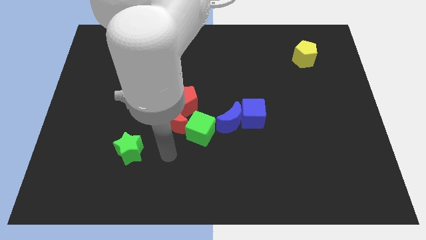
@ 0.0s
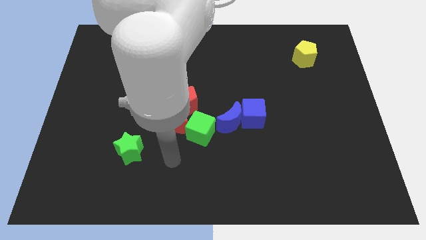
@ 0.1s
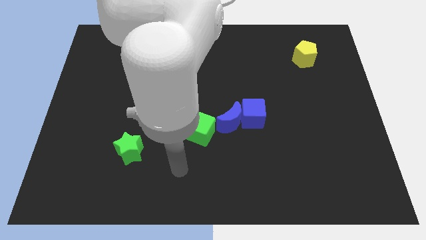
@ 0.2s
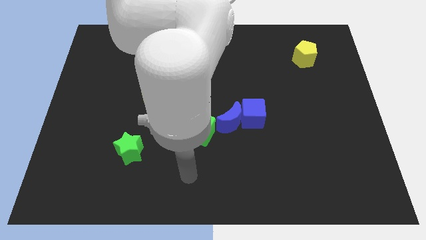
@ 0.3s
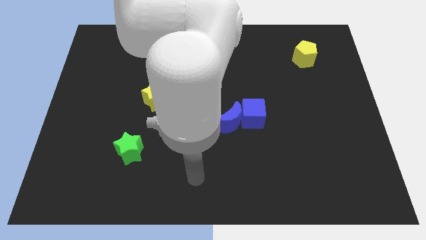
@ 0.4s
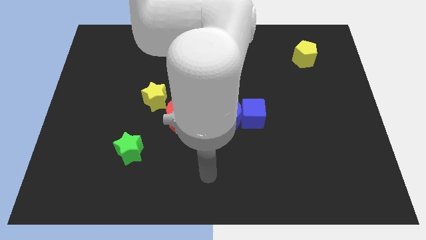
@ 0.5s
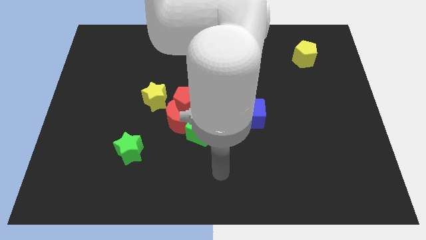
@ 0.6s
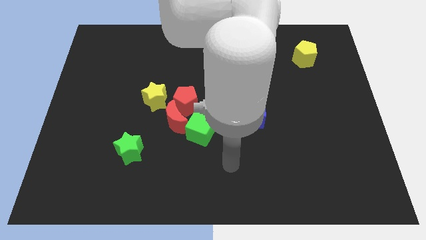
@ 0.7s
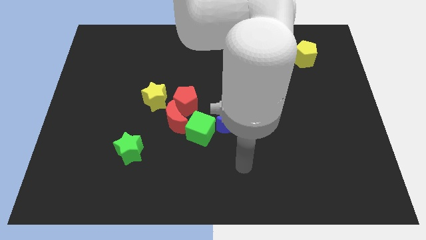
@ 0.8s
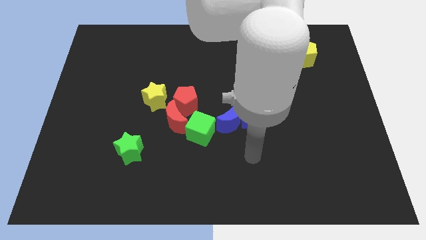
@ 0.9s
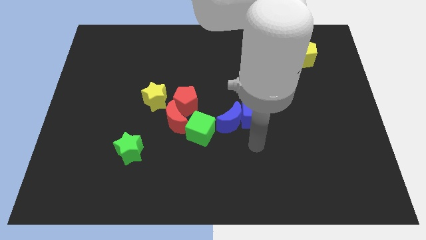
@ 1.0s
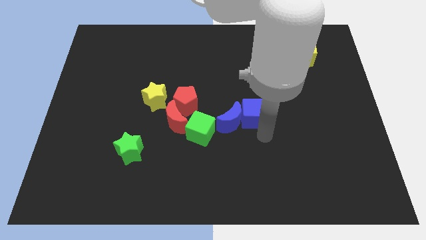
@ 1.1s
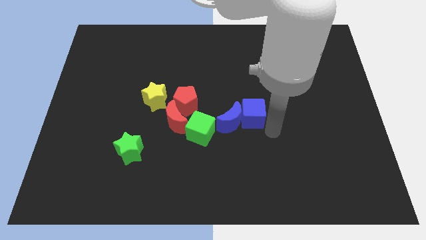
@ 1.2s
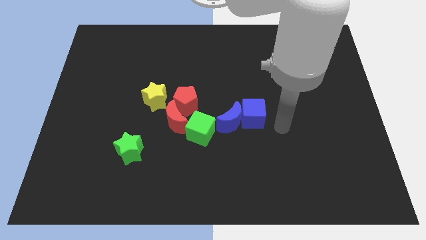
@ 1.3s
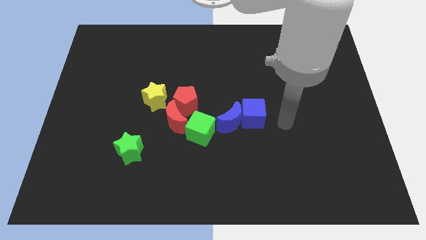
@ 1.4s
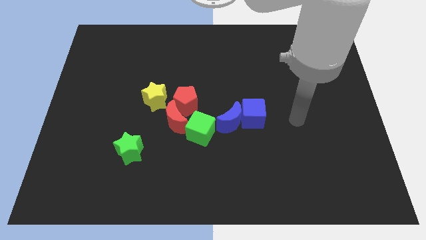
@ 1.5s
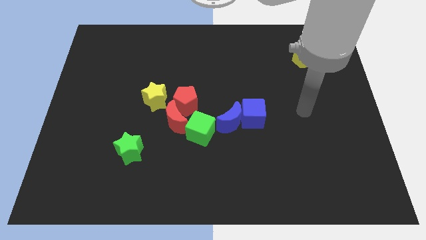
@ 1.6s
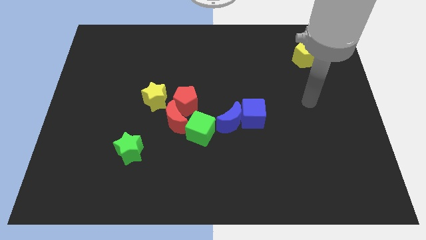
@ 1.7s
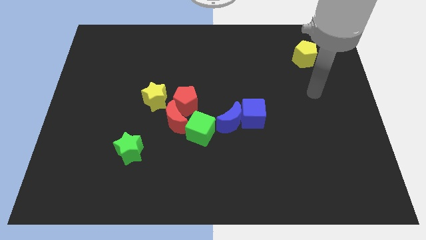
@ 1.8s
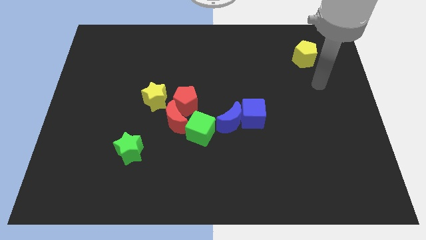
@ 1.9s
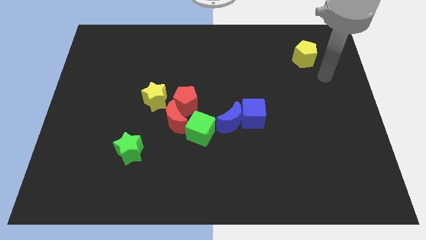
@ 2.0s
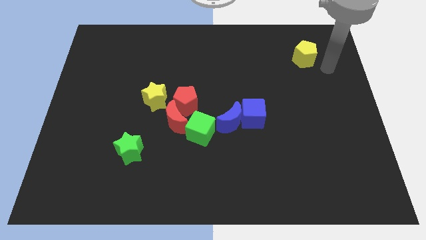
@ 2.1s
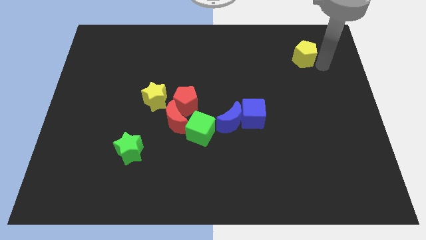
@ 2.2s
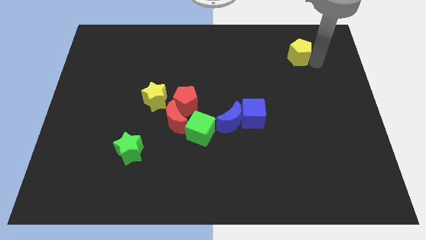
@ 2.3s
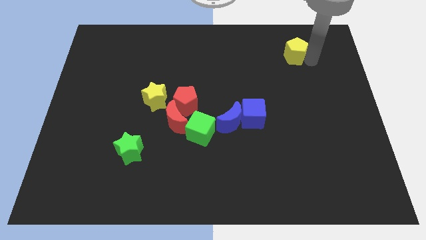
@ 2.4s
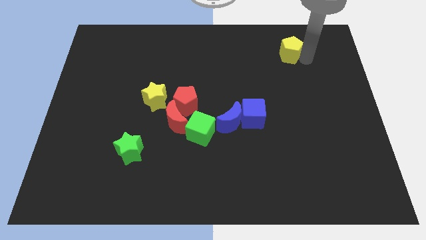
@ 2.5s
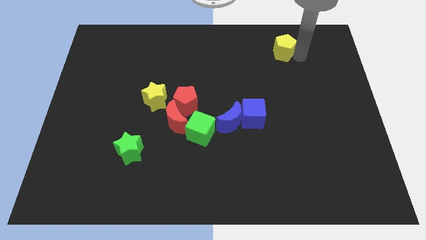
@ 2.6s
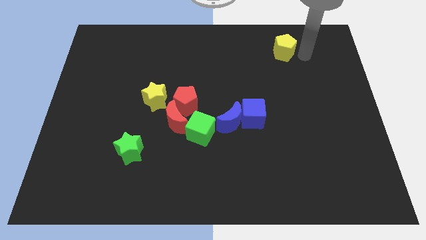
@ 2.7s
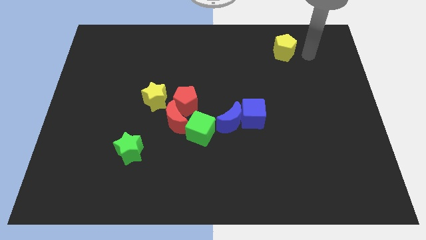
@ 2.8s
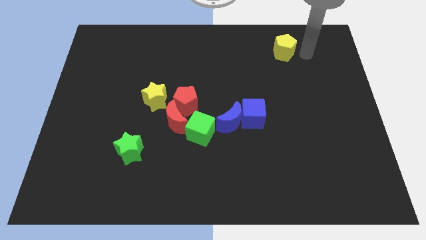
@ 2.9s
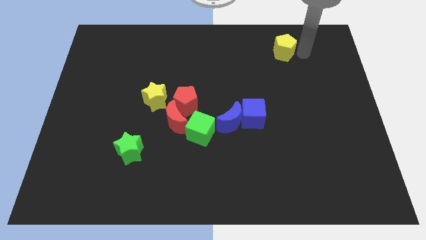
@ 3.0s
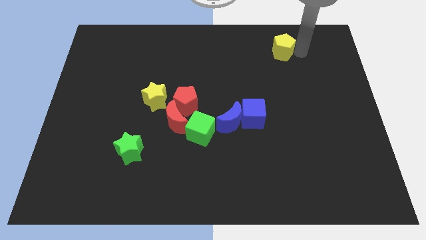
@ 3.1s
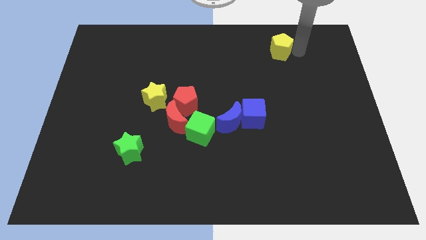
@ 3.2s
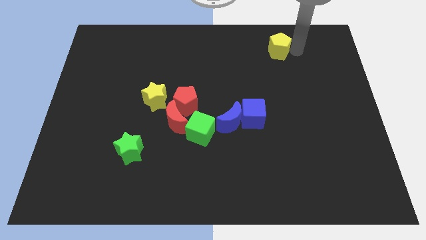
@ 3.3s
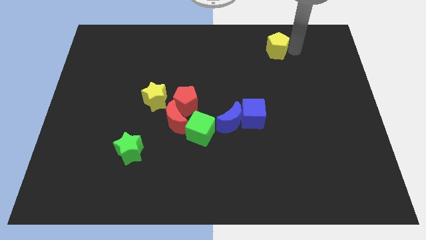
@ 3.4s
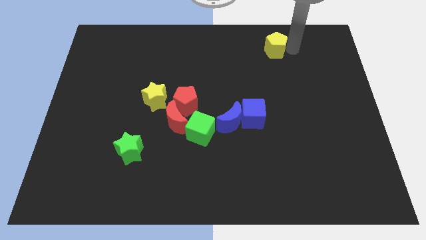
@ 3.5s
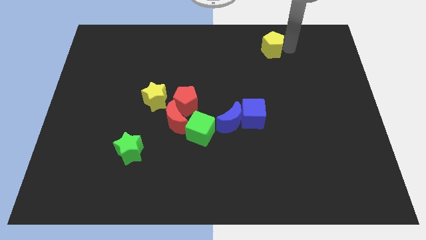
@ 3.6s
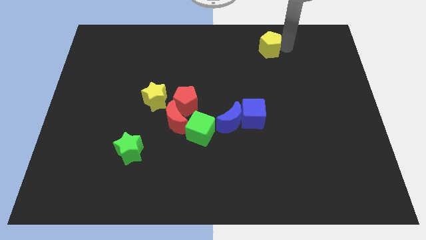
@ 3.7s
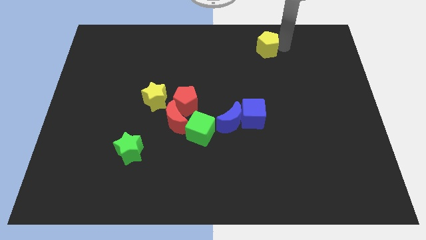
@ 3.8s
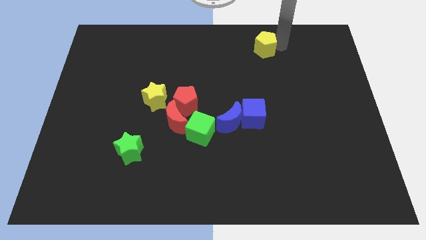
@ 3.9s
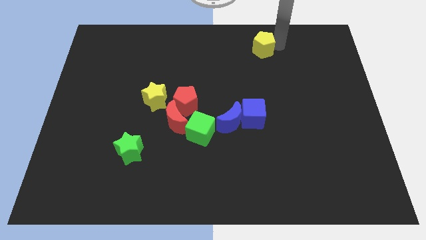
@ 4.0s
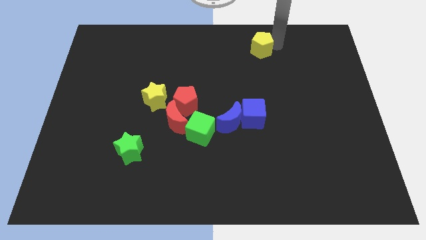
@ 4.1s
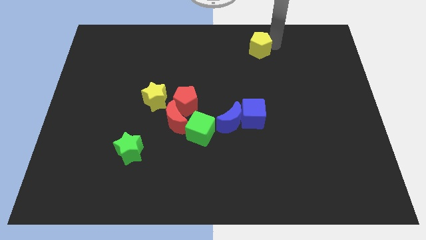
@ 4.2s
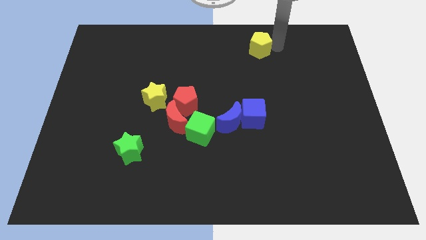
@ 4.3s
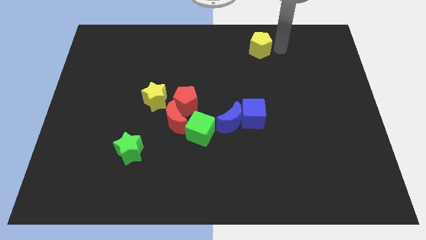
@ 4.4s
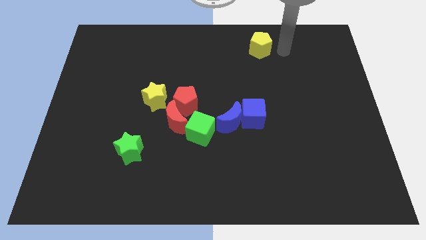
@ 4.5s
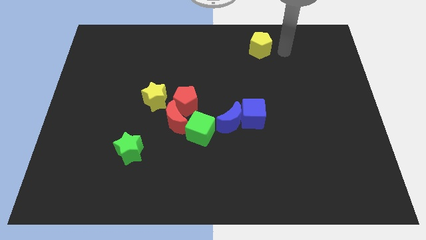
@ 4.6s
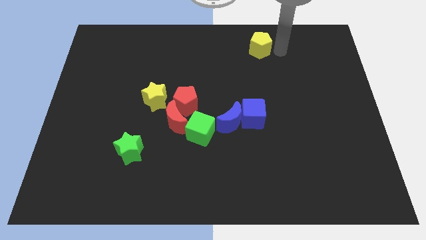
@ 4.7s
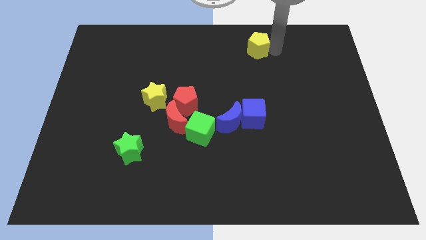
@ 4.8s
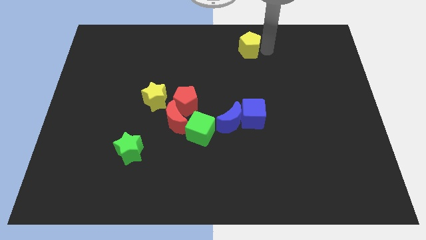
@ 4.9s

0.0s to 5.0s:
move the yellow pentagon to the top

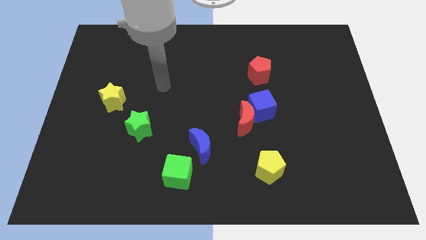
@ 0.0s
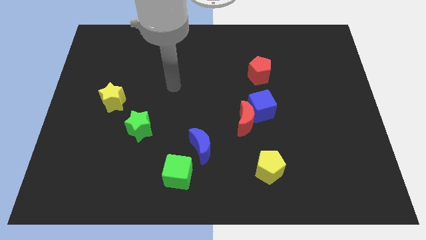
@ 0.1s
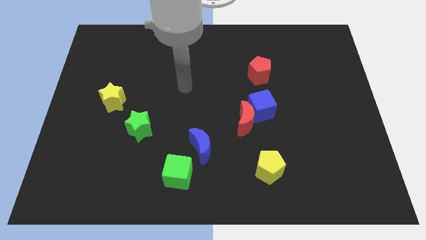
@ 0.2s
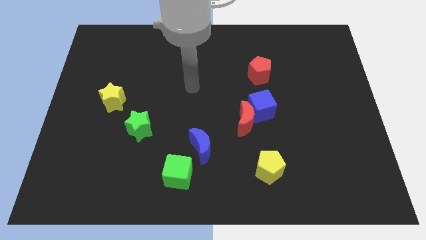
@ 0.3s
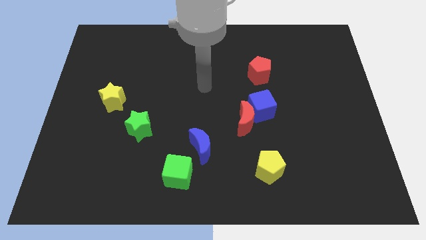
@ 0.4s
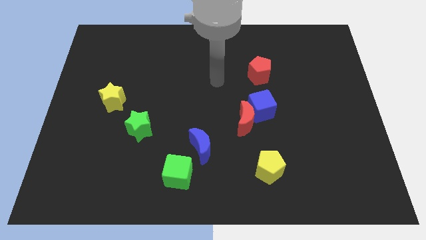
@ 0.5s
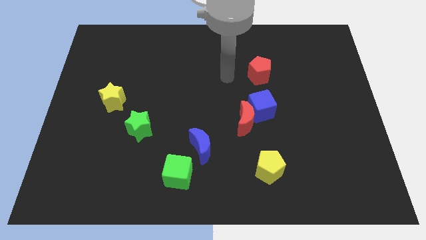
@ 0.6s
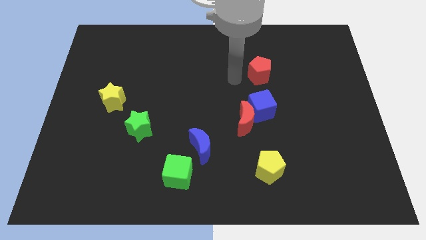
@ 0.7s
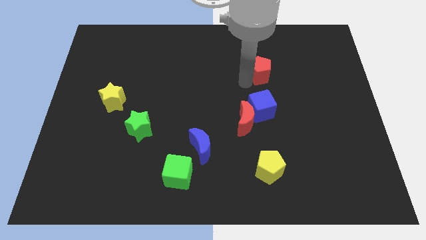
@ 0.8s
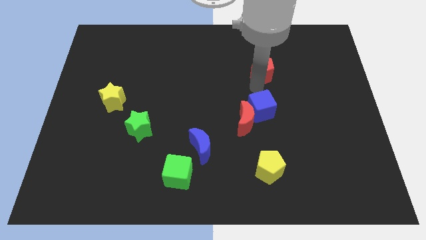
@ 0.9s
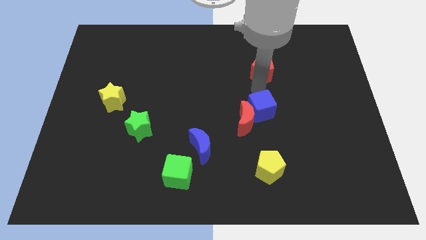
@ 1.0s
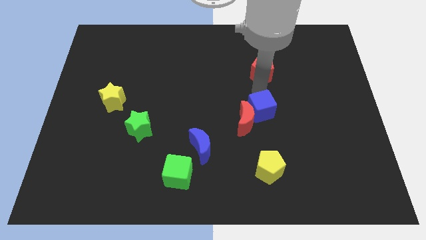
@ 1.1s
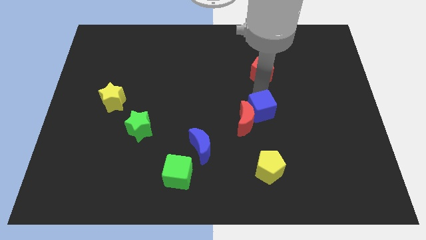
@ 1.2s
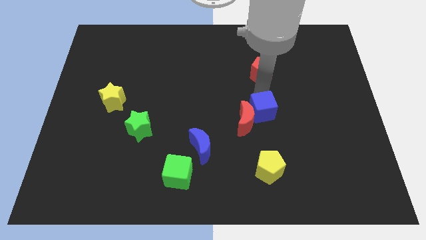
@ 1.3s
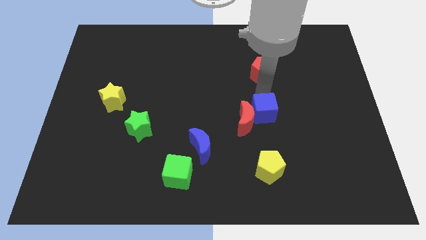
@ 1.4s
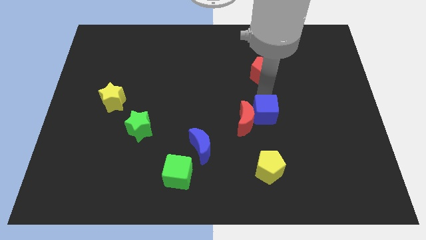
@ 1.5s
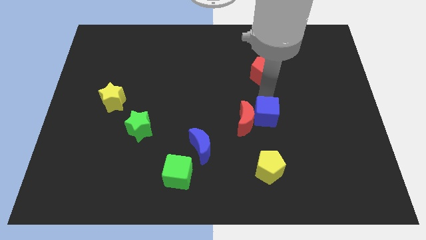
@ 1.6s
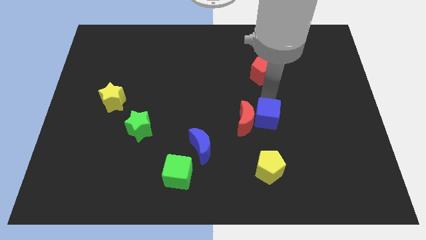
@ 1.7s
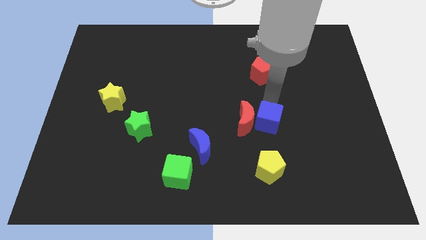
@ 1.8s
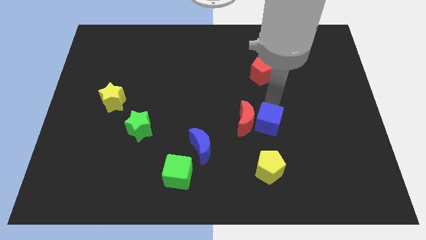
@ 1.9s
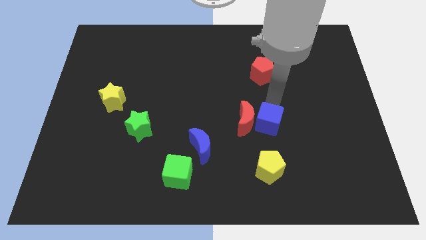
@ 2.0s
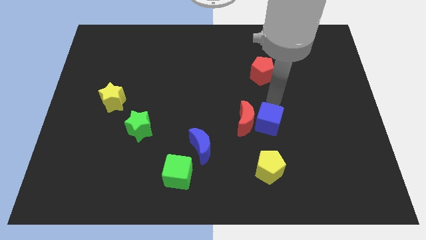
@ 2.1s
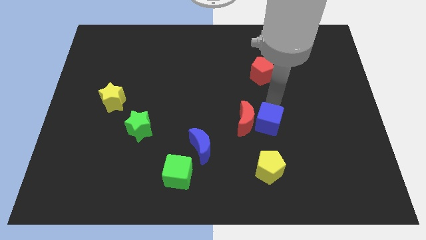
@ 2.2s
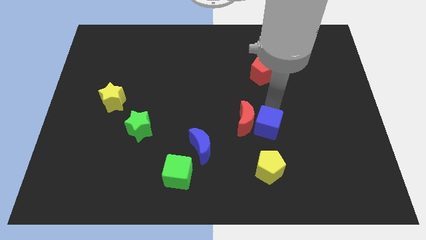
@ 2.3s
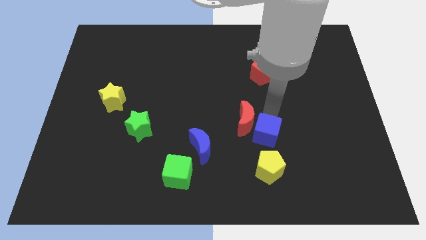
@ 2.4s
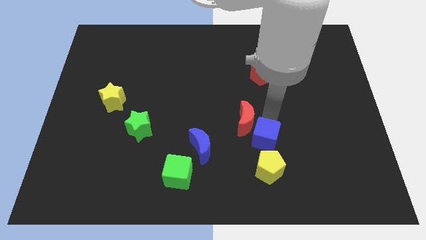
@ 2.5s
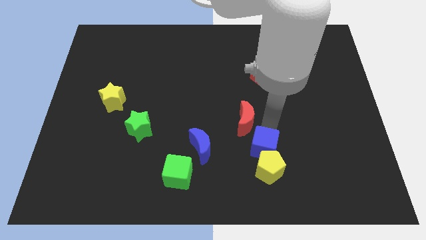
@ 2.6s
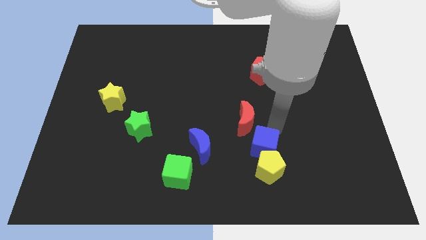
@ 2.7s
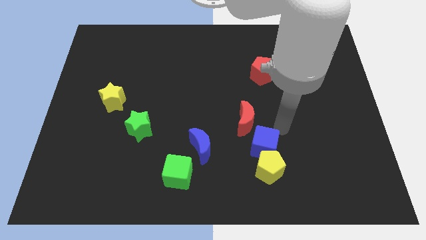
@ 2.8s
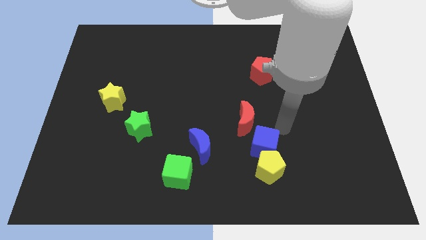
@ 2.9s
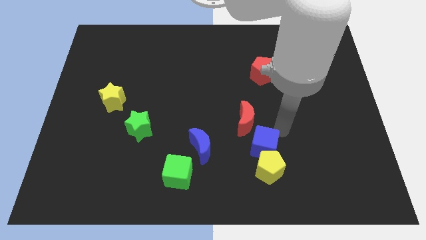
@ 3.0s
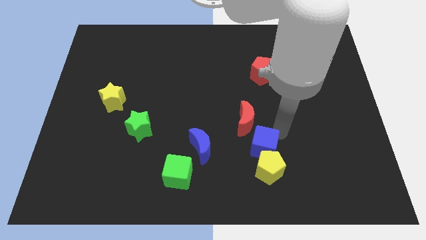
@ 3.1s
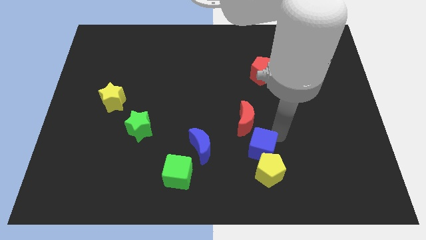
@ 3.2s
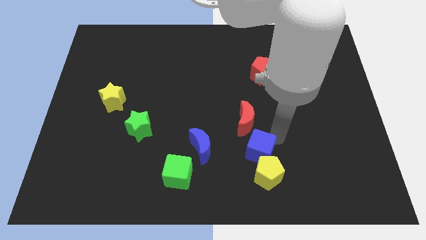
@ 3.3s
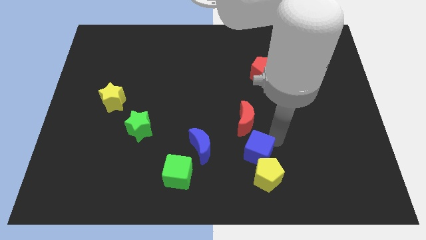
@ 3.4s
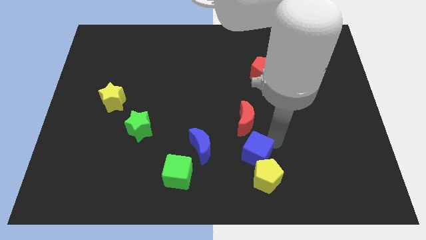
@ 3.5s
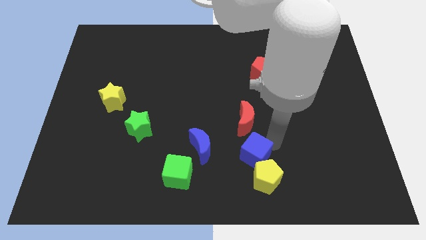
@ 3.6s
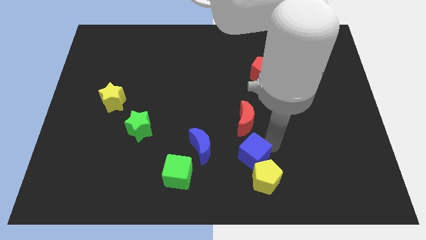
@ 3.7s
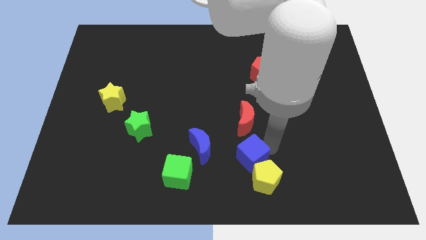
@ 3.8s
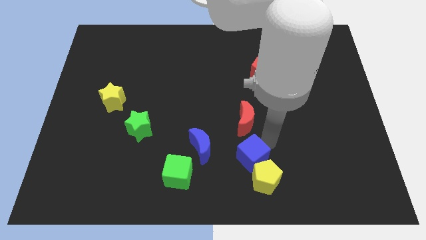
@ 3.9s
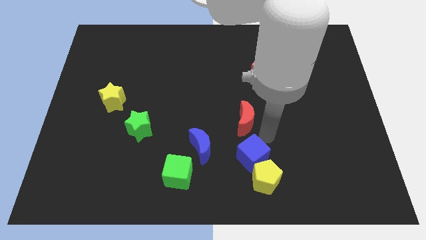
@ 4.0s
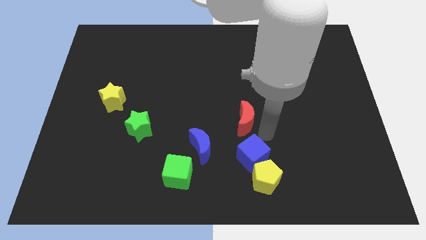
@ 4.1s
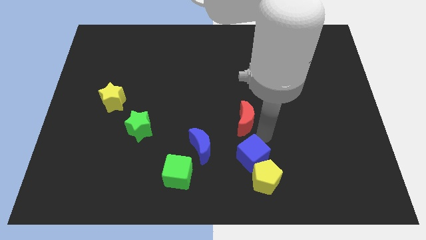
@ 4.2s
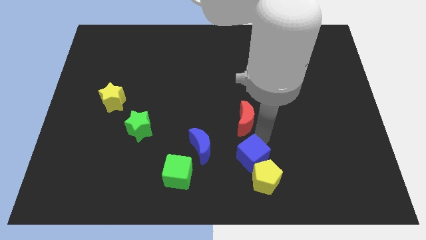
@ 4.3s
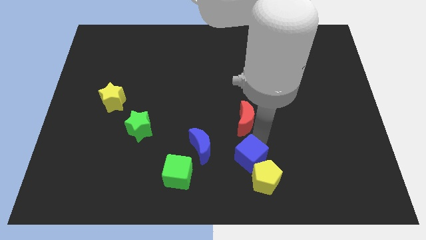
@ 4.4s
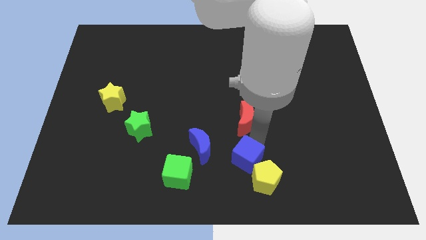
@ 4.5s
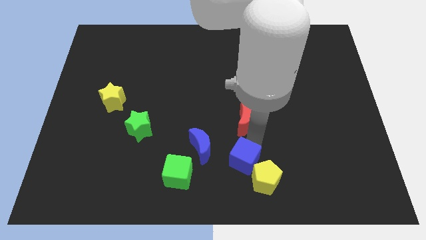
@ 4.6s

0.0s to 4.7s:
slide the blue cube to the bottom side
